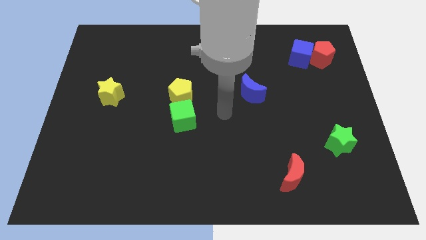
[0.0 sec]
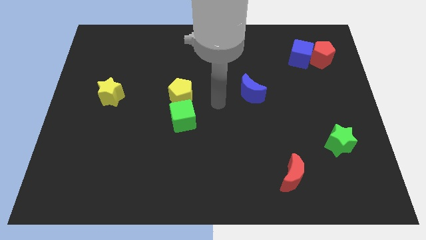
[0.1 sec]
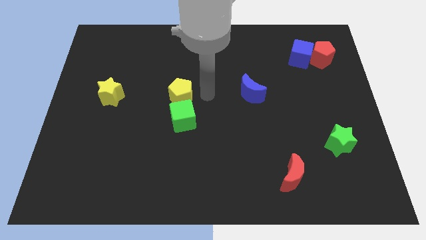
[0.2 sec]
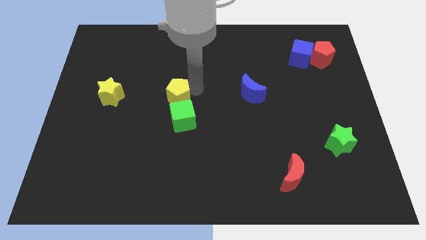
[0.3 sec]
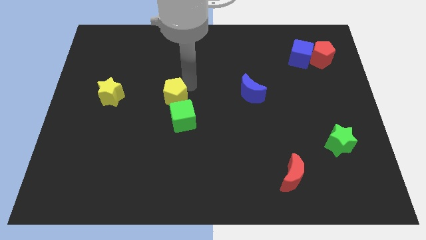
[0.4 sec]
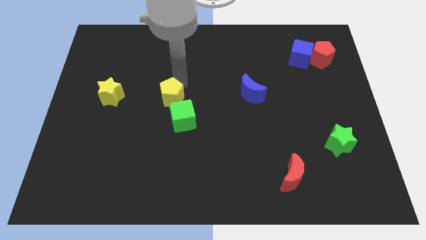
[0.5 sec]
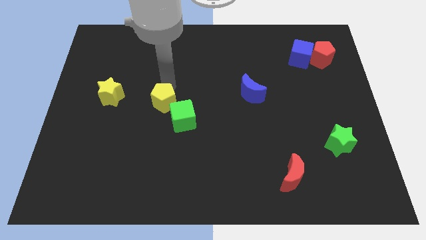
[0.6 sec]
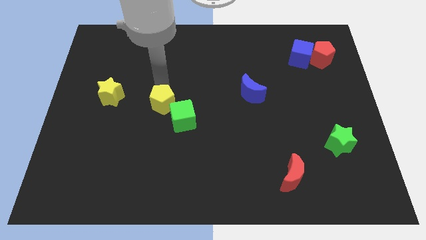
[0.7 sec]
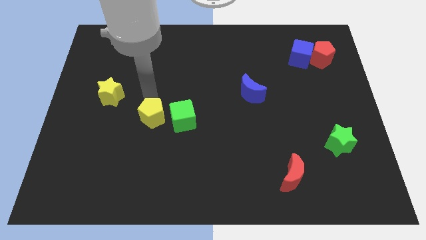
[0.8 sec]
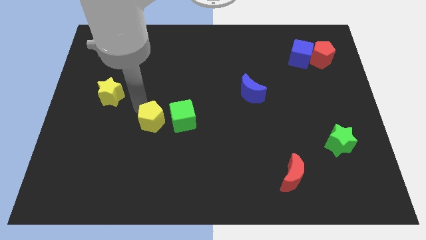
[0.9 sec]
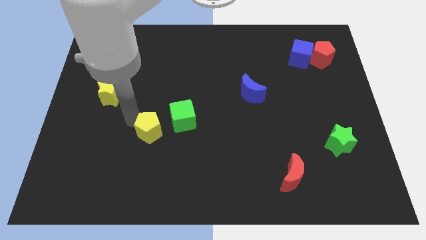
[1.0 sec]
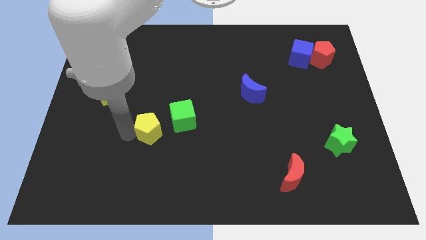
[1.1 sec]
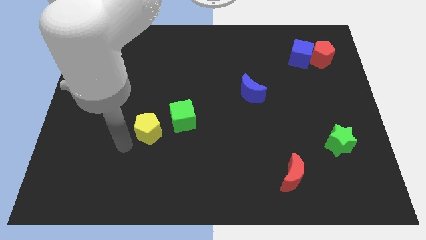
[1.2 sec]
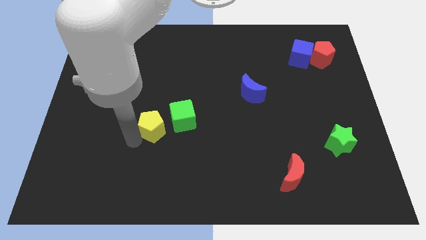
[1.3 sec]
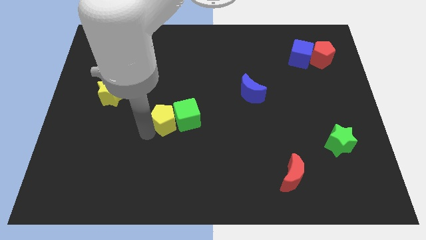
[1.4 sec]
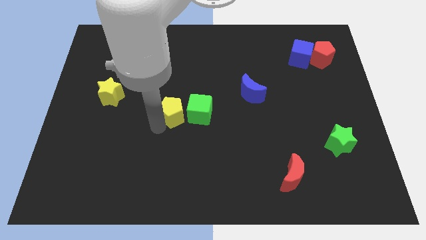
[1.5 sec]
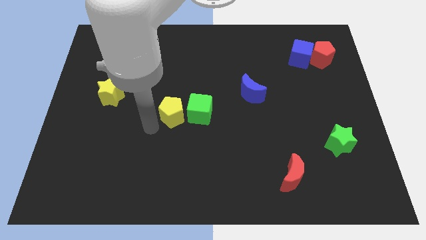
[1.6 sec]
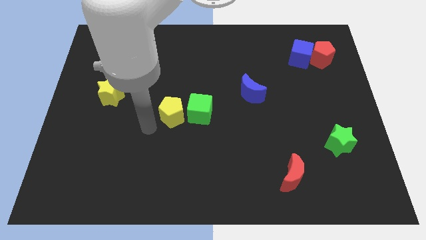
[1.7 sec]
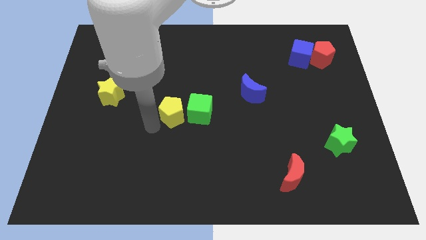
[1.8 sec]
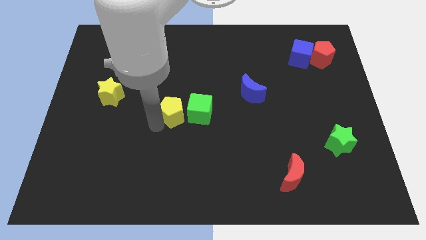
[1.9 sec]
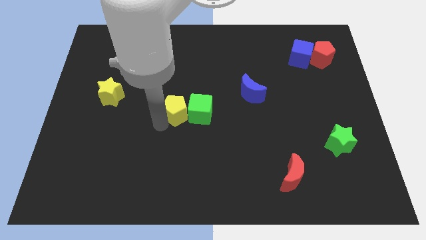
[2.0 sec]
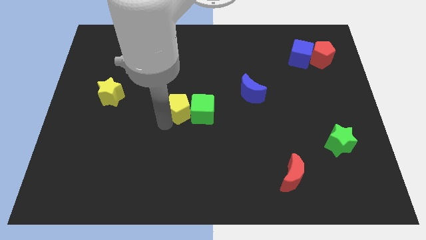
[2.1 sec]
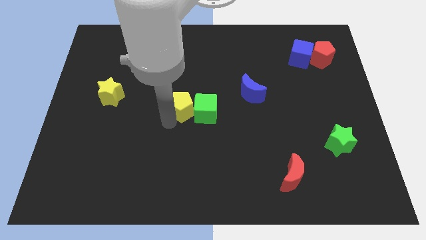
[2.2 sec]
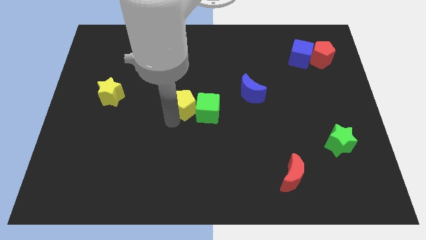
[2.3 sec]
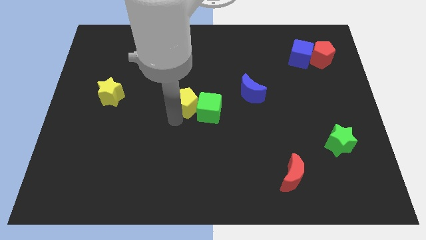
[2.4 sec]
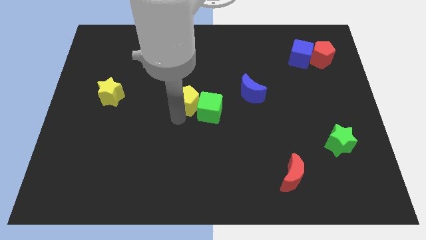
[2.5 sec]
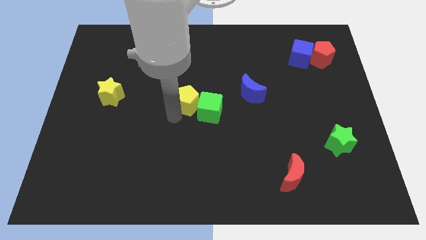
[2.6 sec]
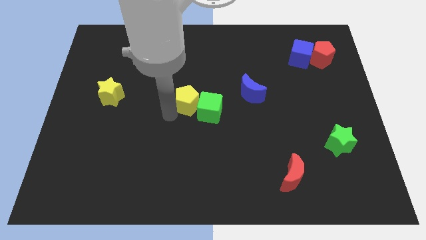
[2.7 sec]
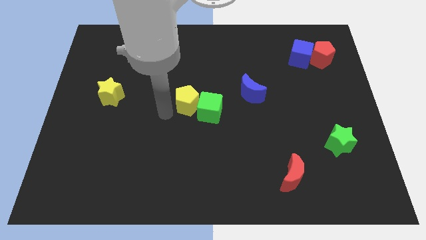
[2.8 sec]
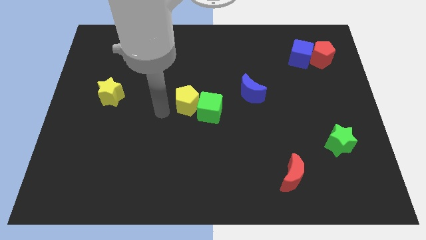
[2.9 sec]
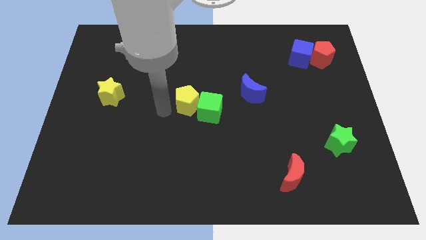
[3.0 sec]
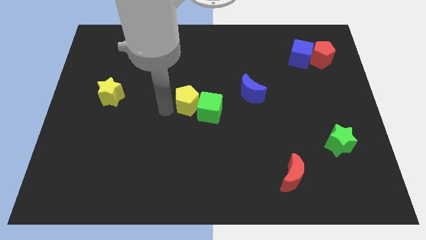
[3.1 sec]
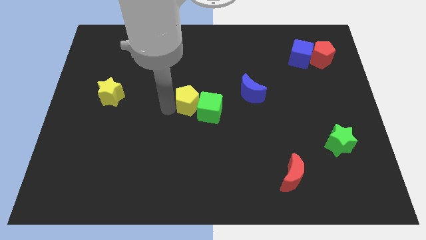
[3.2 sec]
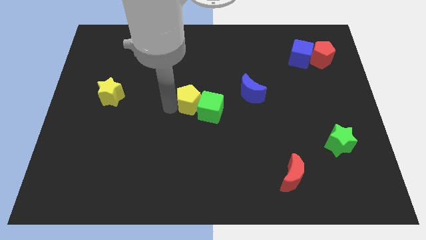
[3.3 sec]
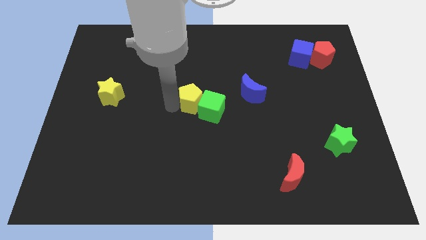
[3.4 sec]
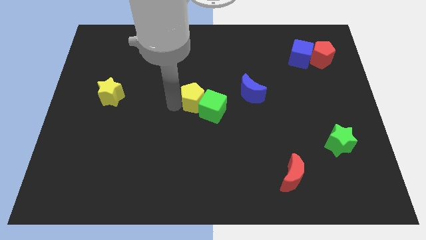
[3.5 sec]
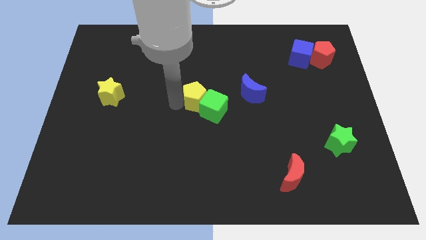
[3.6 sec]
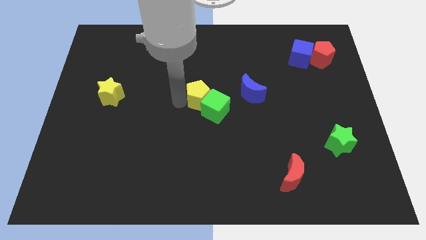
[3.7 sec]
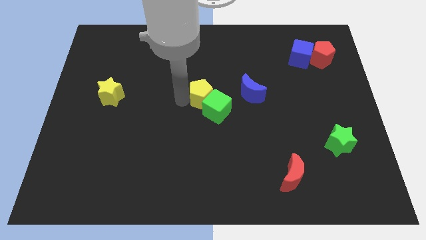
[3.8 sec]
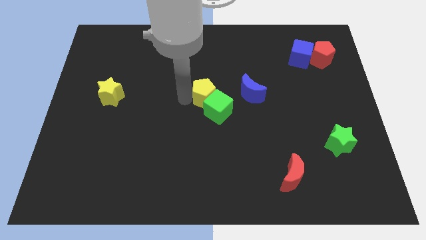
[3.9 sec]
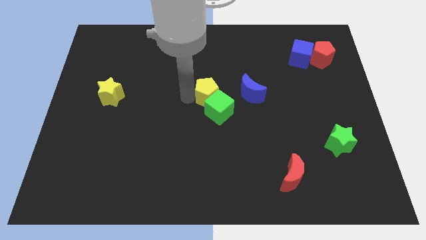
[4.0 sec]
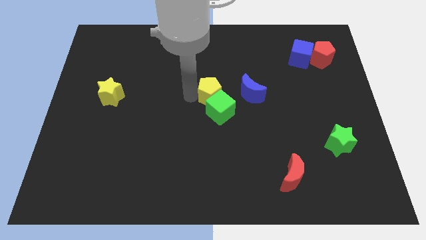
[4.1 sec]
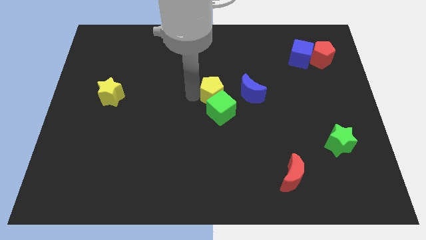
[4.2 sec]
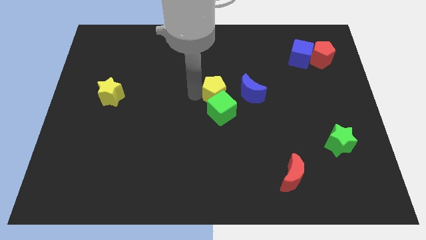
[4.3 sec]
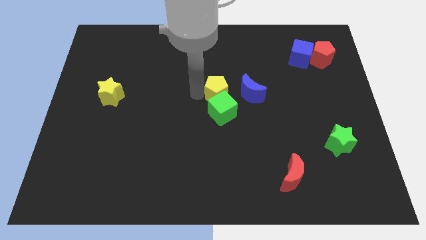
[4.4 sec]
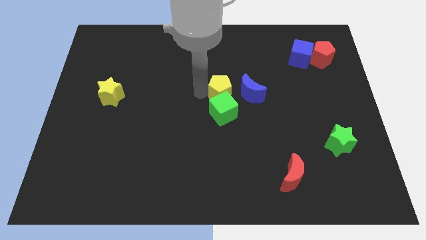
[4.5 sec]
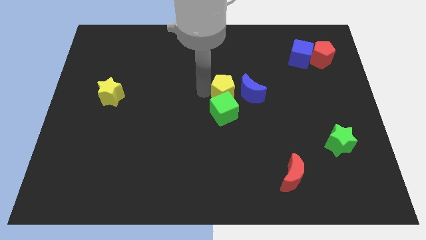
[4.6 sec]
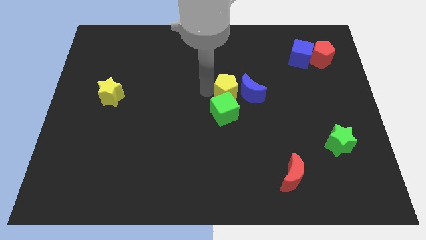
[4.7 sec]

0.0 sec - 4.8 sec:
push the yellow pentagon close to the blue moon

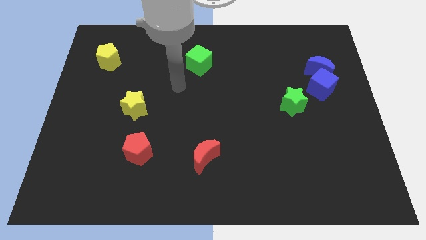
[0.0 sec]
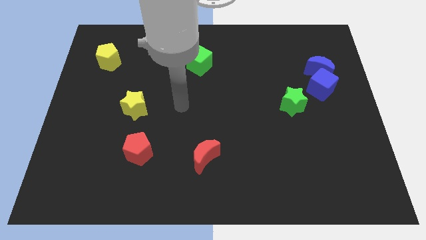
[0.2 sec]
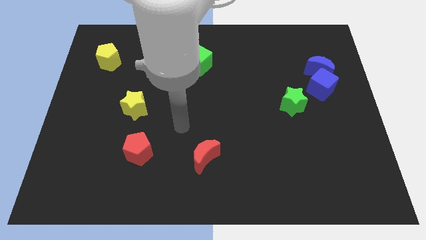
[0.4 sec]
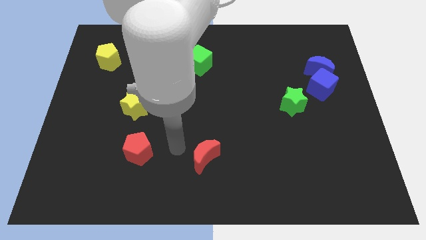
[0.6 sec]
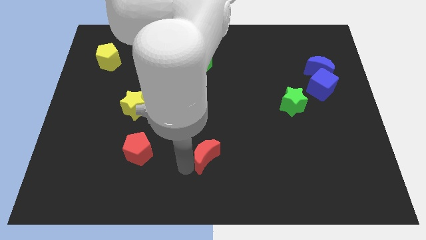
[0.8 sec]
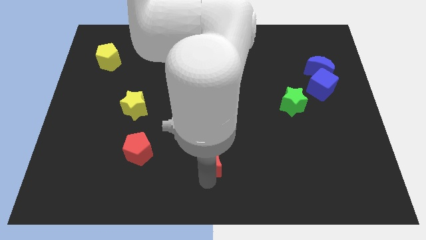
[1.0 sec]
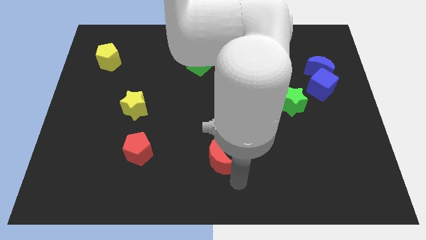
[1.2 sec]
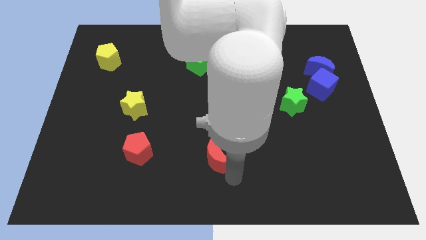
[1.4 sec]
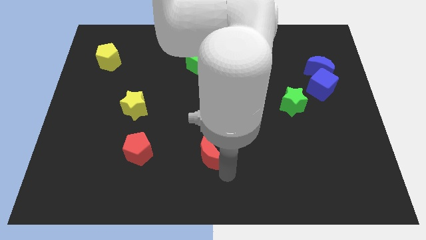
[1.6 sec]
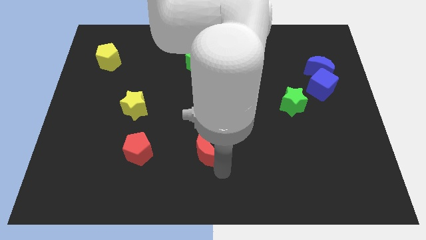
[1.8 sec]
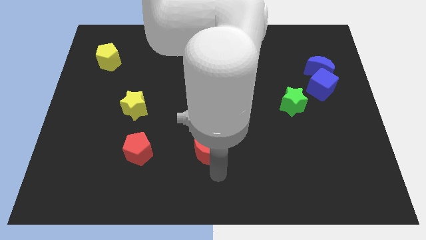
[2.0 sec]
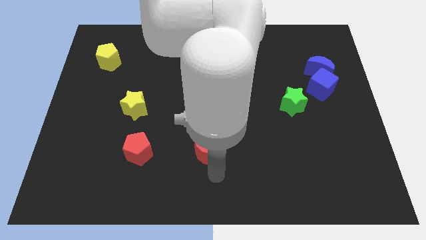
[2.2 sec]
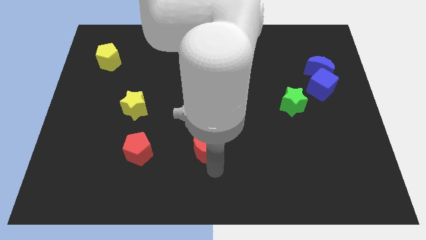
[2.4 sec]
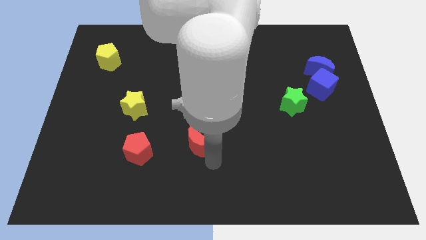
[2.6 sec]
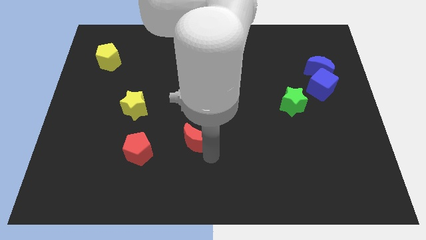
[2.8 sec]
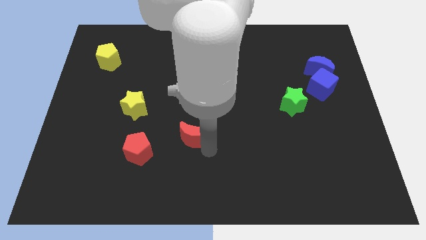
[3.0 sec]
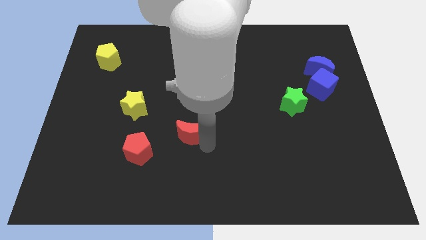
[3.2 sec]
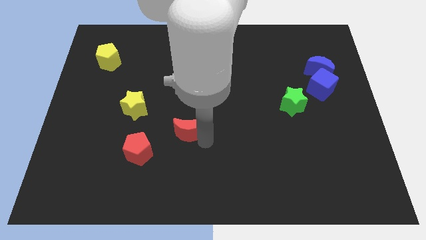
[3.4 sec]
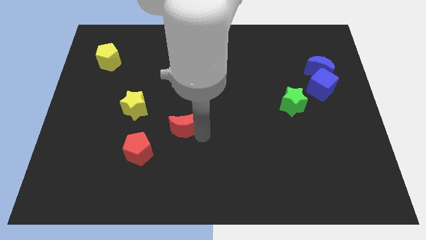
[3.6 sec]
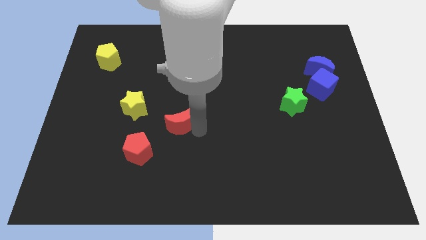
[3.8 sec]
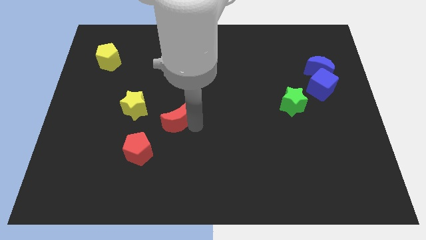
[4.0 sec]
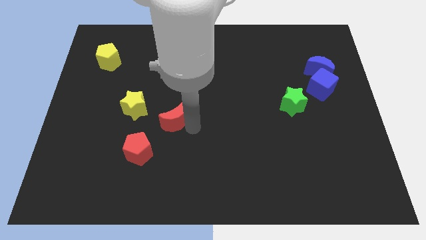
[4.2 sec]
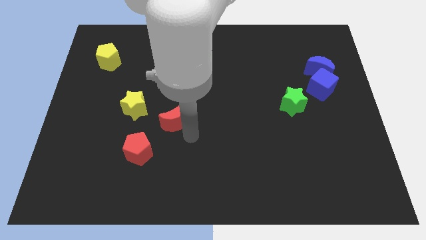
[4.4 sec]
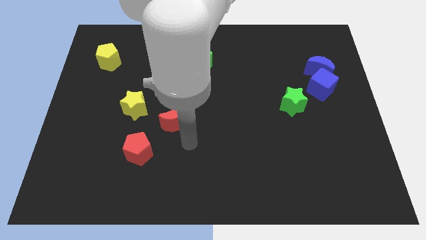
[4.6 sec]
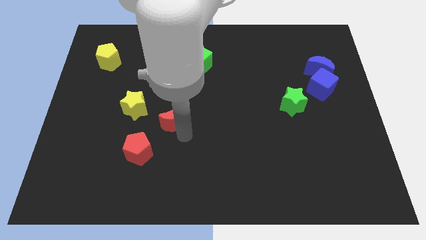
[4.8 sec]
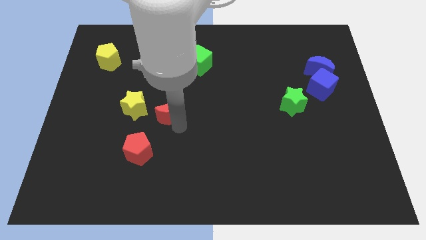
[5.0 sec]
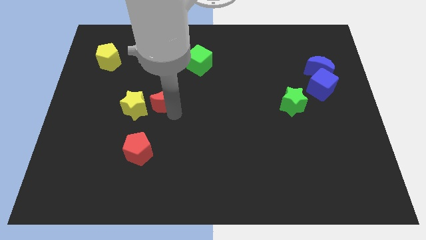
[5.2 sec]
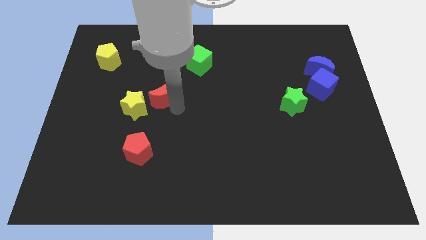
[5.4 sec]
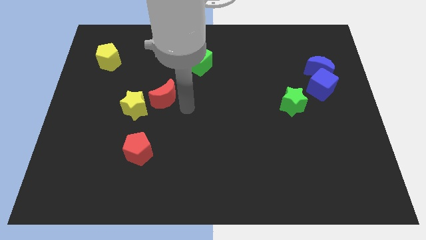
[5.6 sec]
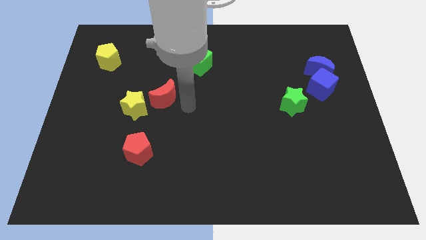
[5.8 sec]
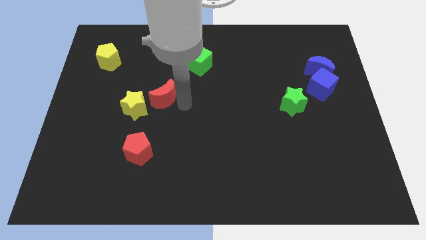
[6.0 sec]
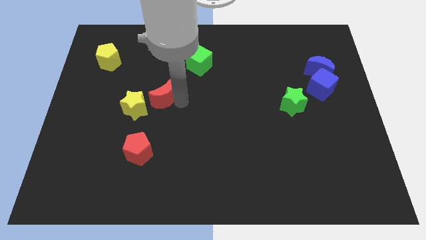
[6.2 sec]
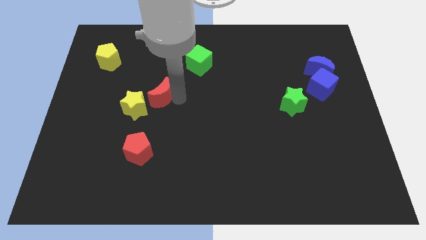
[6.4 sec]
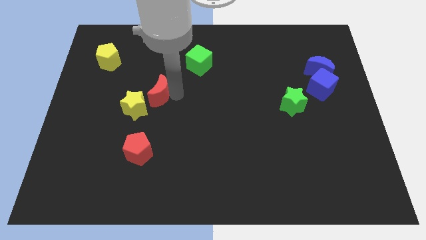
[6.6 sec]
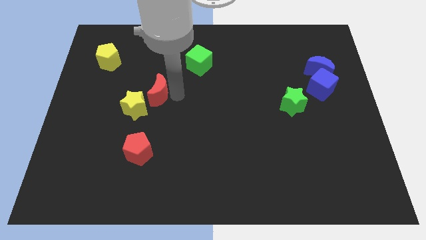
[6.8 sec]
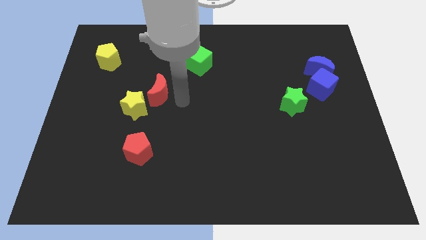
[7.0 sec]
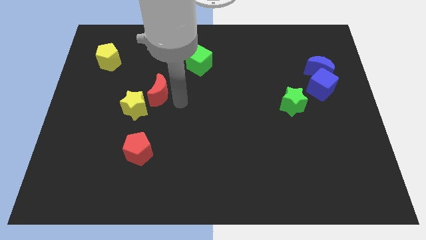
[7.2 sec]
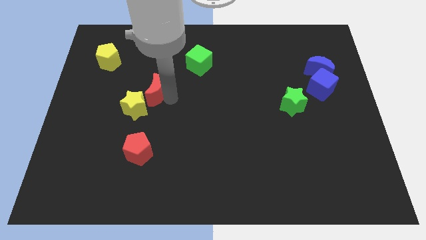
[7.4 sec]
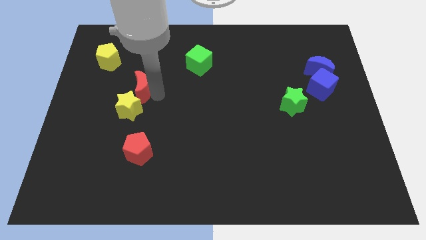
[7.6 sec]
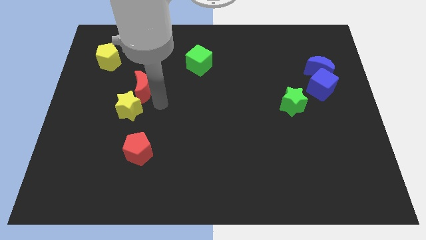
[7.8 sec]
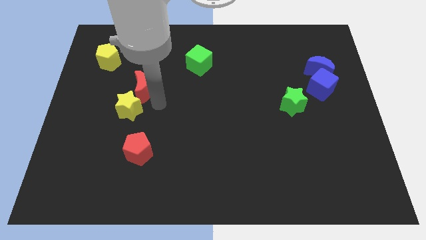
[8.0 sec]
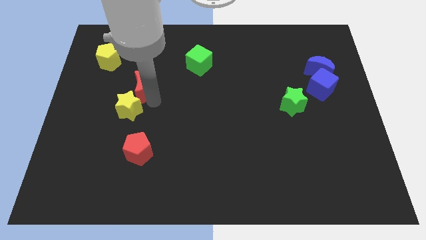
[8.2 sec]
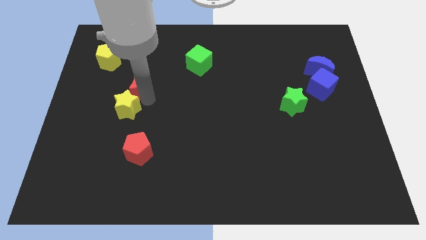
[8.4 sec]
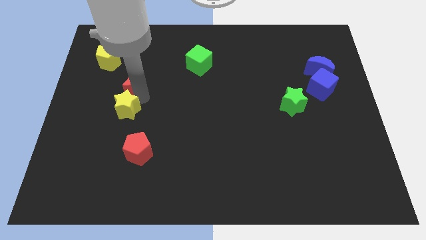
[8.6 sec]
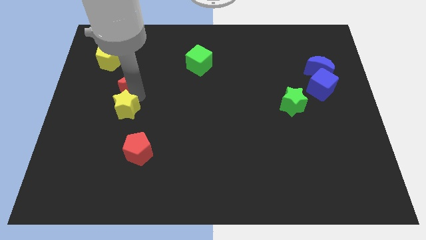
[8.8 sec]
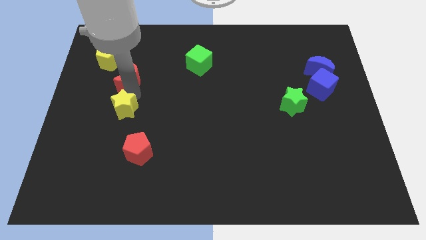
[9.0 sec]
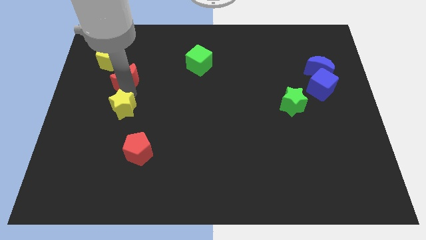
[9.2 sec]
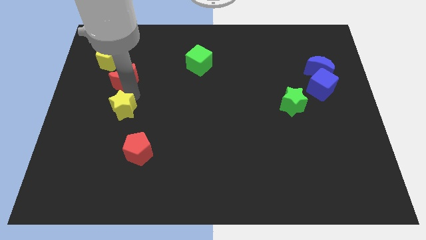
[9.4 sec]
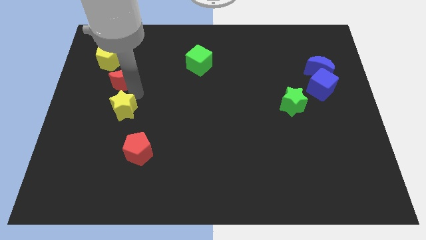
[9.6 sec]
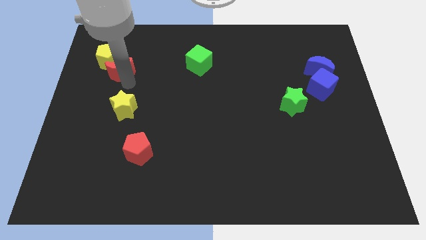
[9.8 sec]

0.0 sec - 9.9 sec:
push the red moon next to the yellow pentagon
